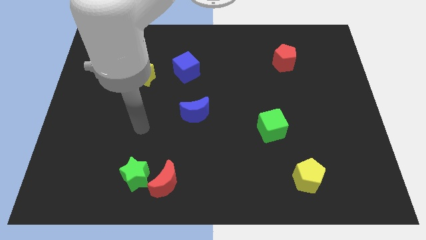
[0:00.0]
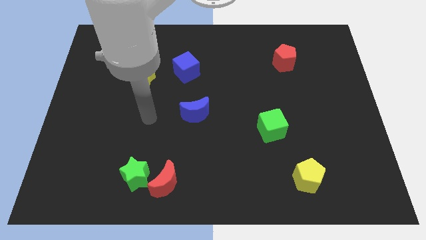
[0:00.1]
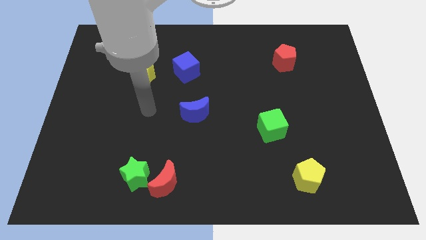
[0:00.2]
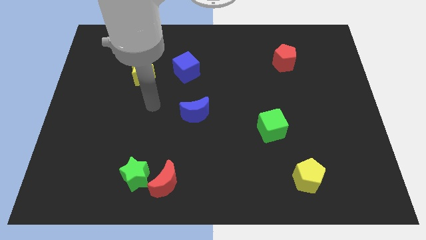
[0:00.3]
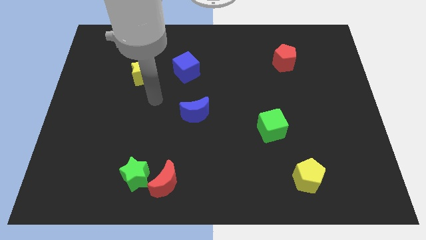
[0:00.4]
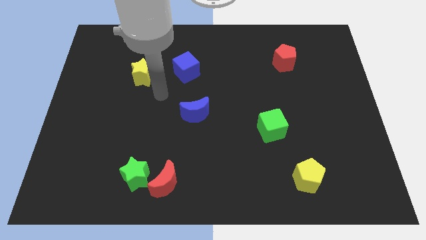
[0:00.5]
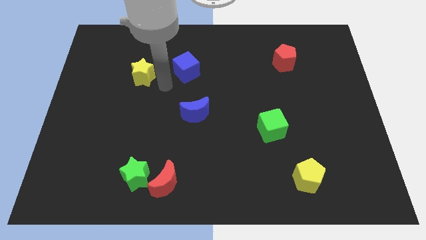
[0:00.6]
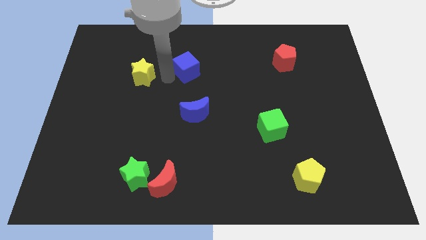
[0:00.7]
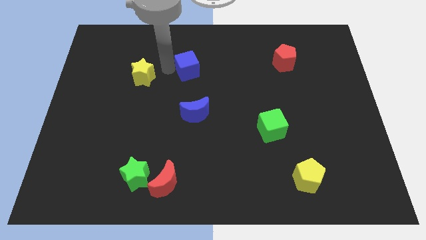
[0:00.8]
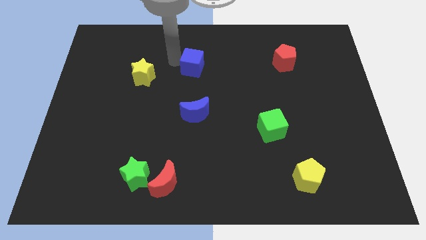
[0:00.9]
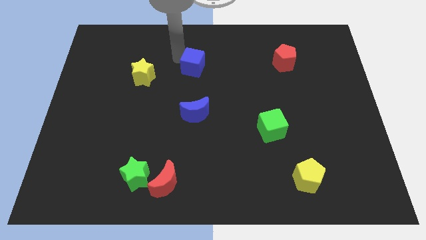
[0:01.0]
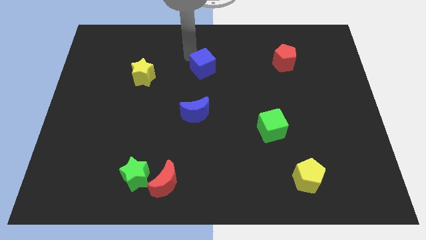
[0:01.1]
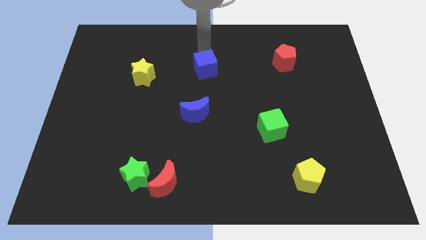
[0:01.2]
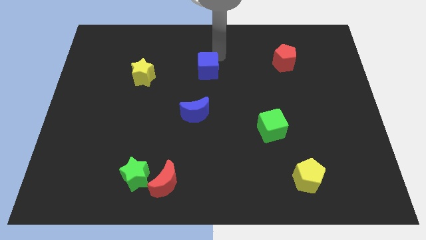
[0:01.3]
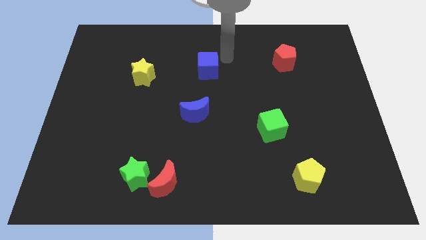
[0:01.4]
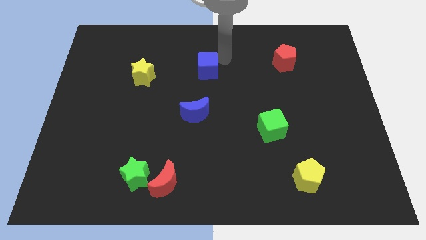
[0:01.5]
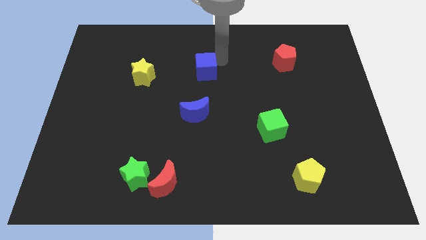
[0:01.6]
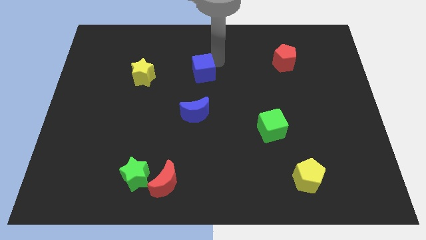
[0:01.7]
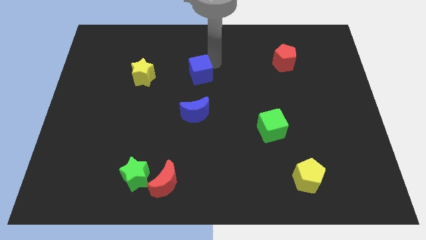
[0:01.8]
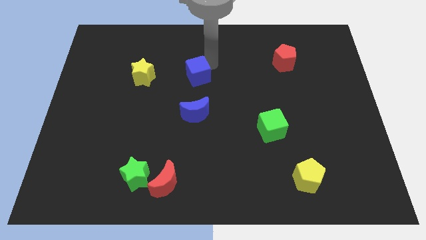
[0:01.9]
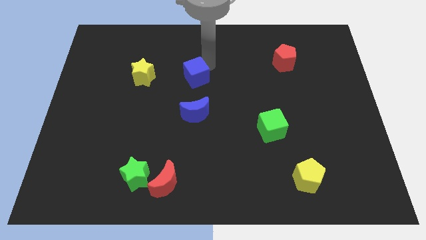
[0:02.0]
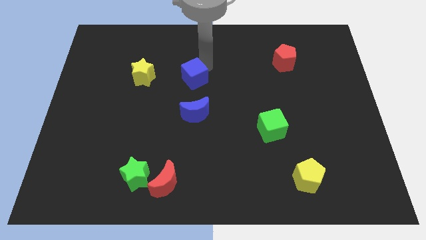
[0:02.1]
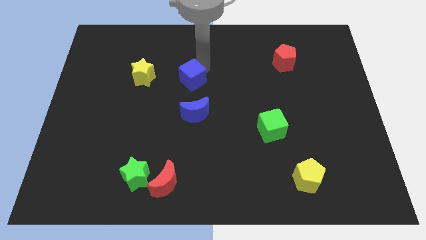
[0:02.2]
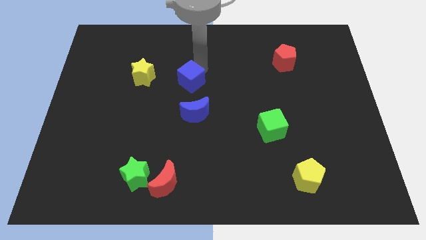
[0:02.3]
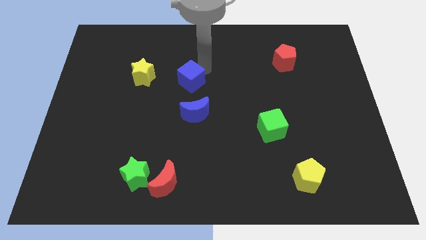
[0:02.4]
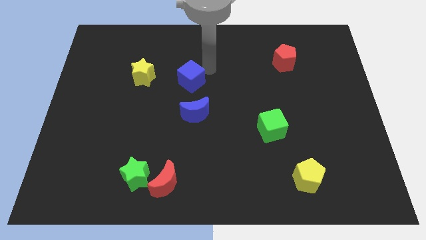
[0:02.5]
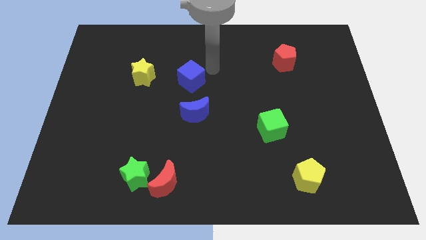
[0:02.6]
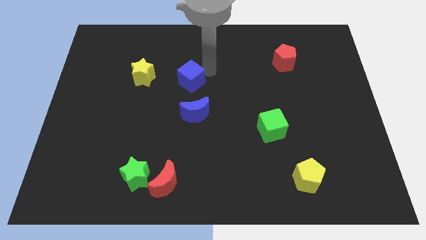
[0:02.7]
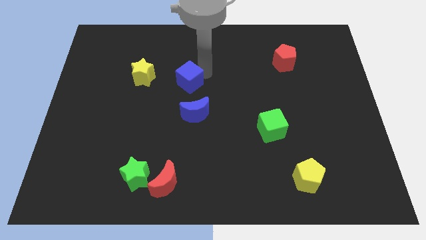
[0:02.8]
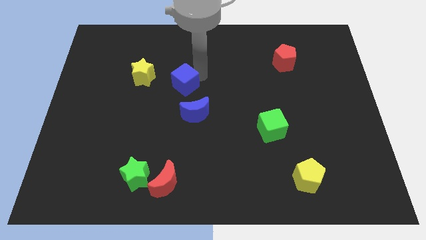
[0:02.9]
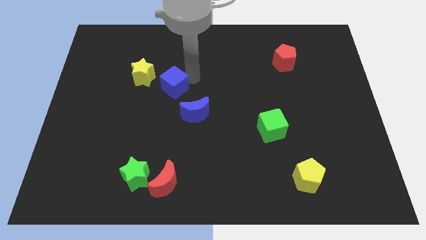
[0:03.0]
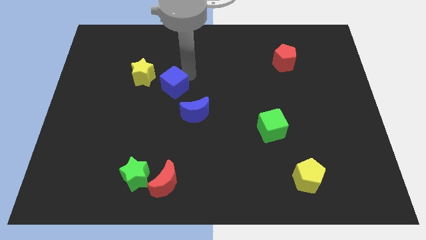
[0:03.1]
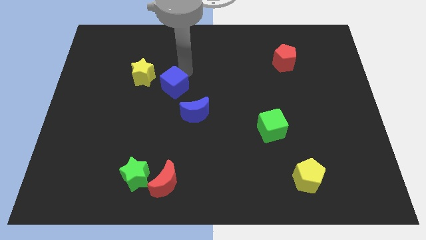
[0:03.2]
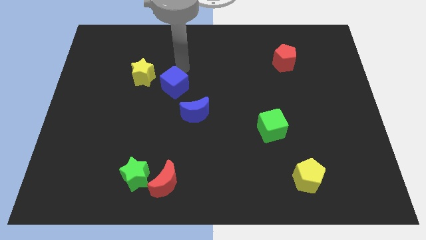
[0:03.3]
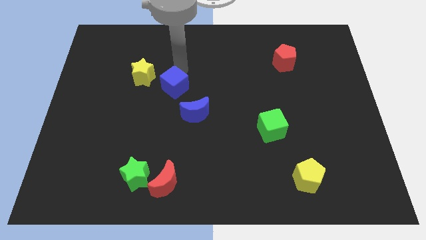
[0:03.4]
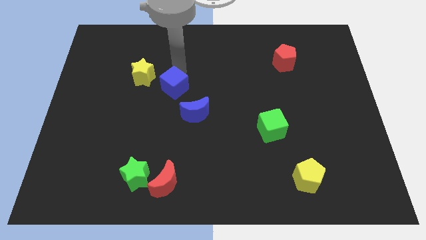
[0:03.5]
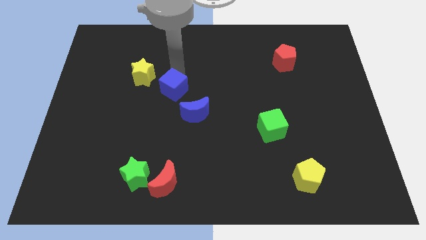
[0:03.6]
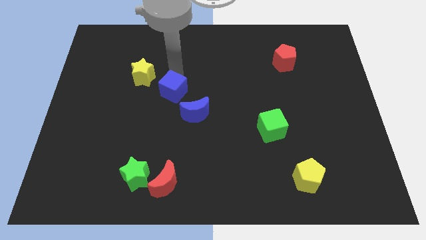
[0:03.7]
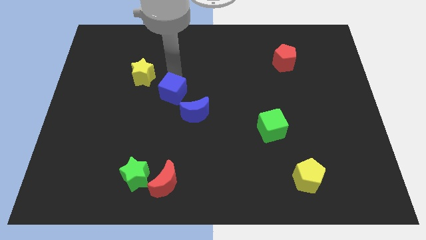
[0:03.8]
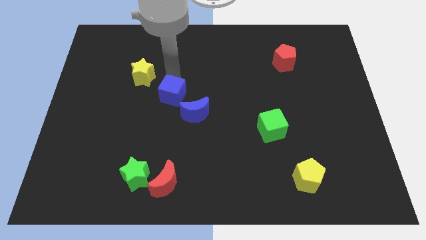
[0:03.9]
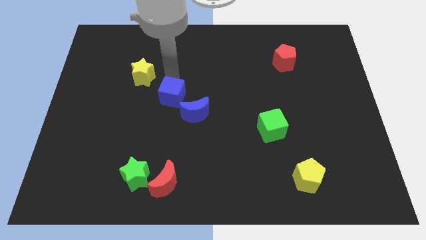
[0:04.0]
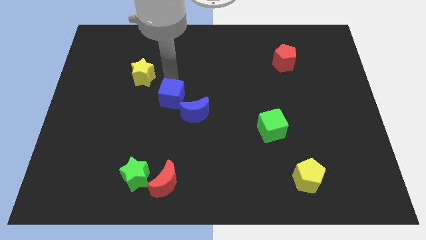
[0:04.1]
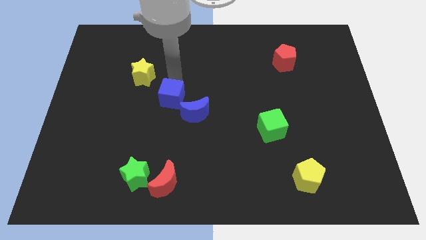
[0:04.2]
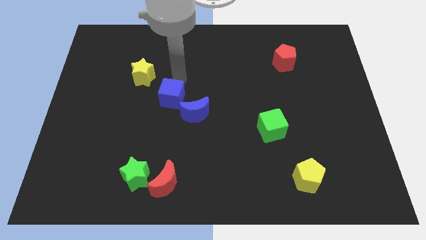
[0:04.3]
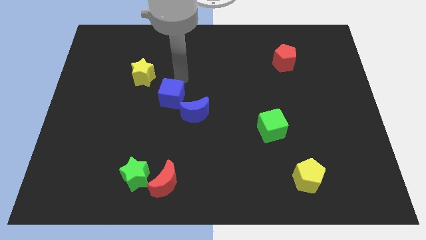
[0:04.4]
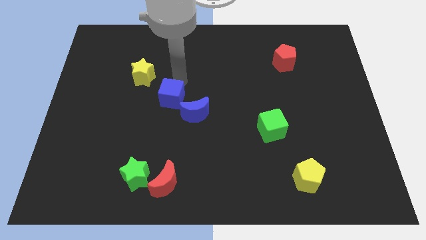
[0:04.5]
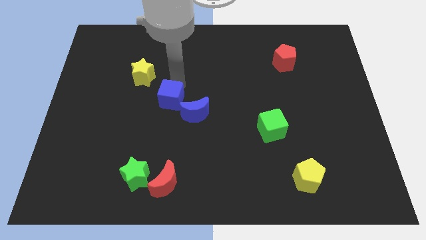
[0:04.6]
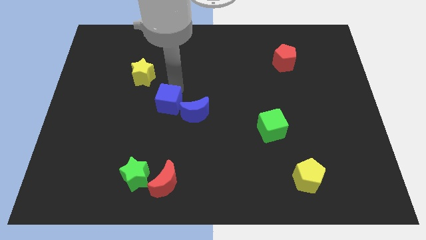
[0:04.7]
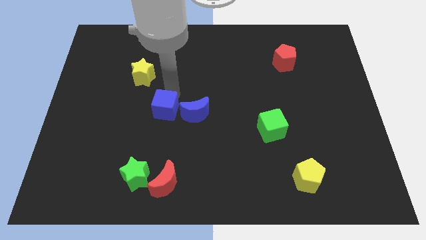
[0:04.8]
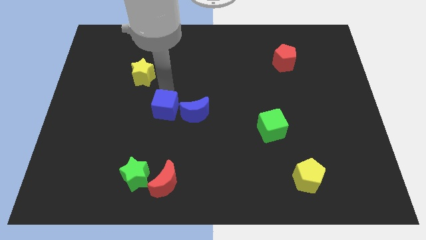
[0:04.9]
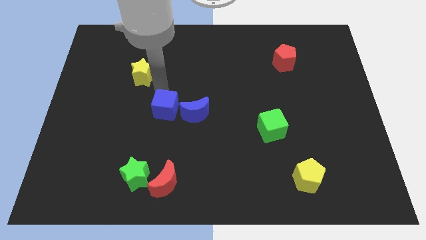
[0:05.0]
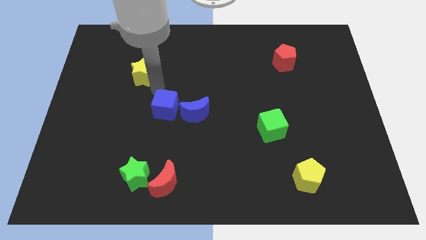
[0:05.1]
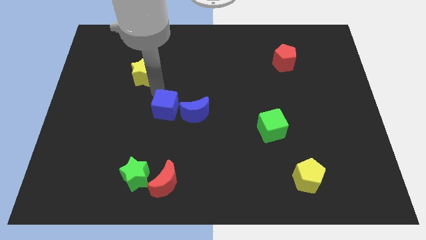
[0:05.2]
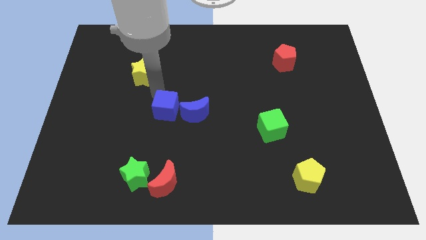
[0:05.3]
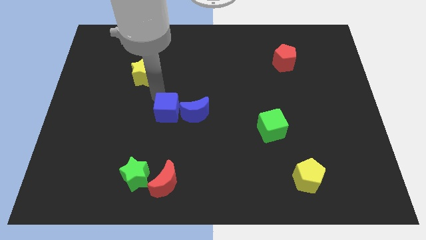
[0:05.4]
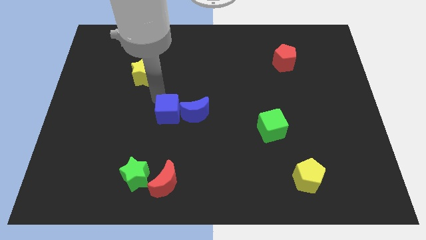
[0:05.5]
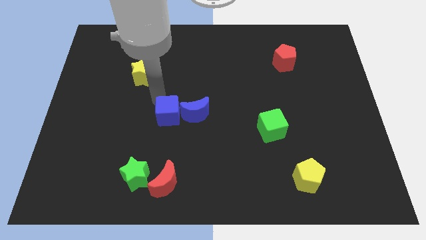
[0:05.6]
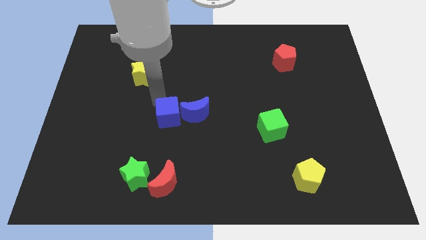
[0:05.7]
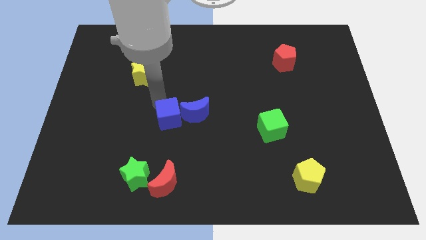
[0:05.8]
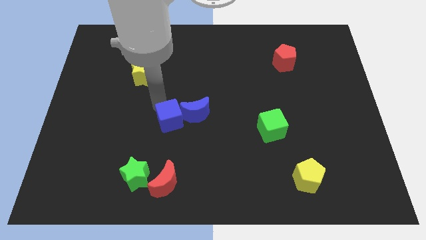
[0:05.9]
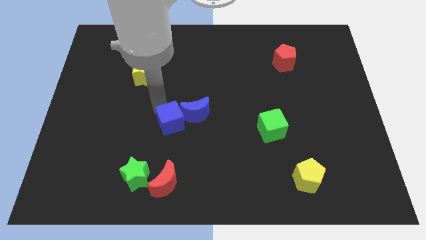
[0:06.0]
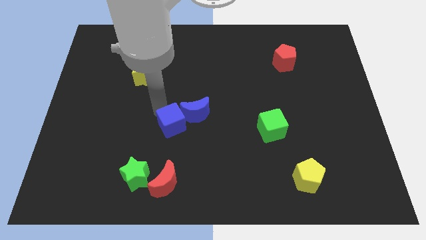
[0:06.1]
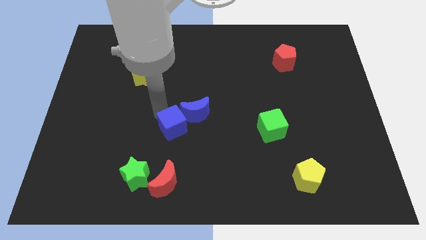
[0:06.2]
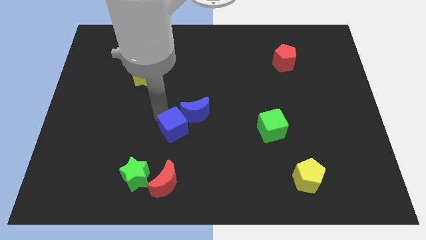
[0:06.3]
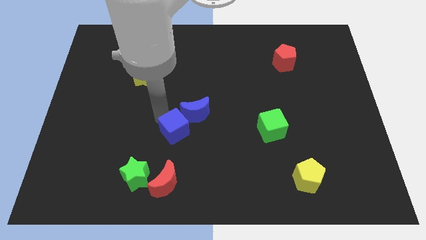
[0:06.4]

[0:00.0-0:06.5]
put the blue cube to the bottom of the blue moon

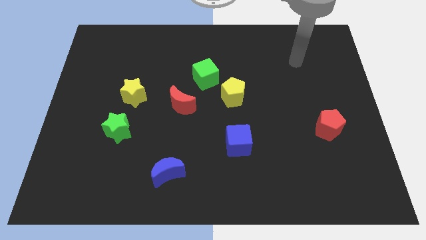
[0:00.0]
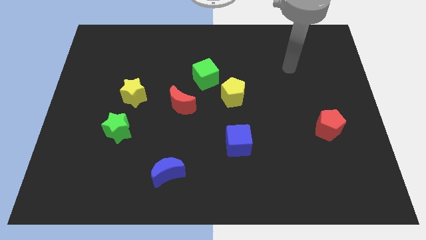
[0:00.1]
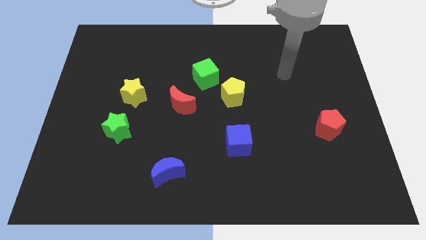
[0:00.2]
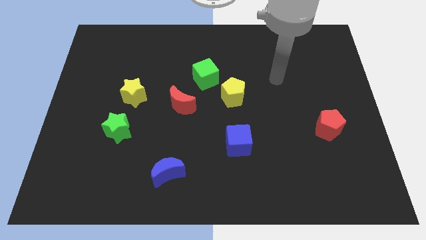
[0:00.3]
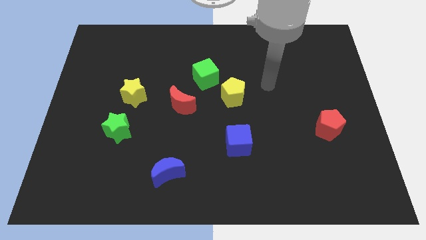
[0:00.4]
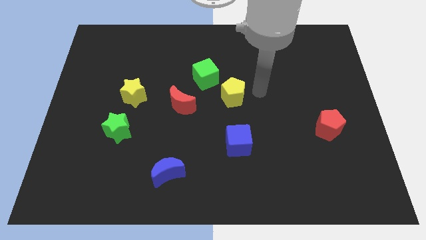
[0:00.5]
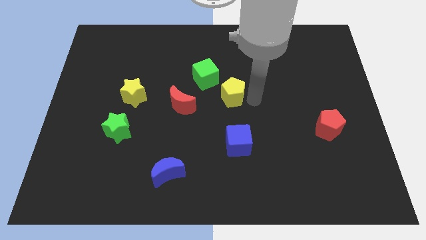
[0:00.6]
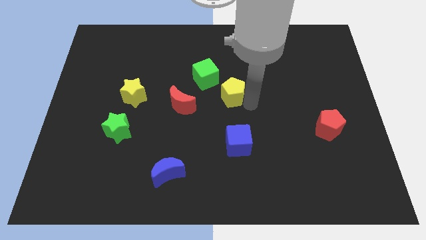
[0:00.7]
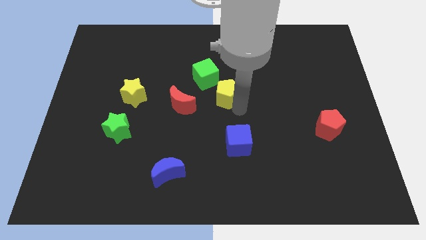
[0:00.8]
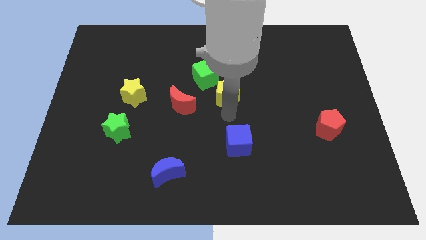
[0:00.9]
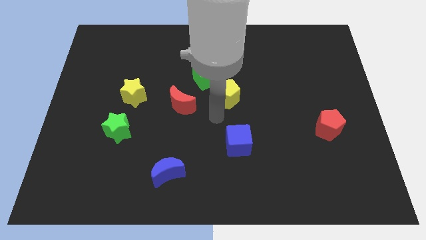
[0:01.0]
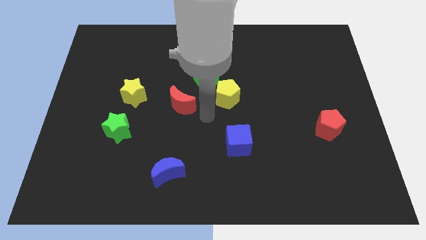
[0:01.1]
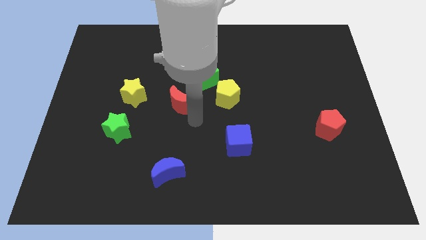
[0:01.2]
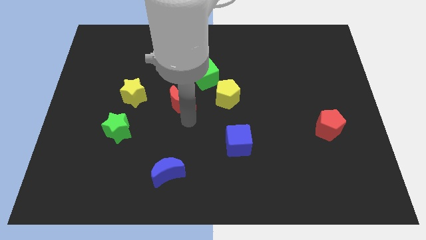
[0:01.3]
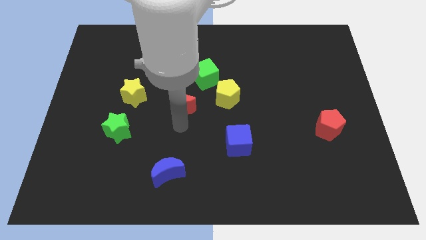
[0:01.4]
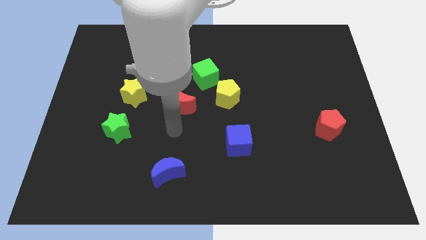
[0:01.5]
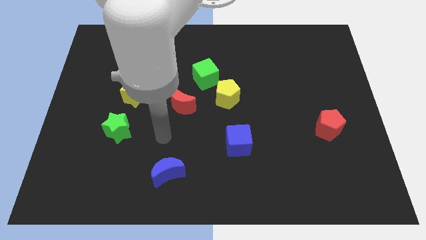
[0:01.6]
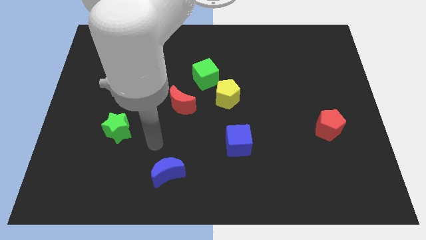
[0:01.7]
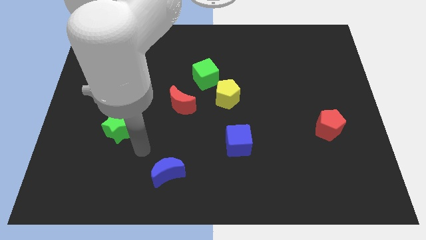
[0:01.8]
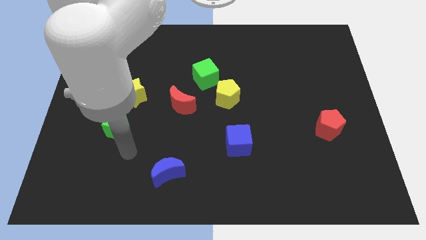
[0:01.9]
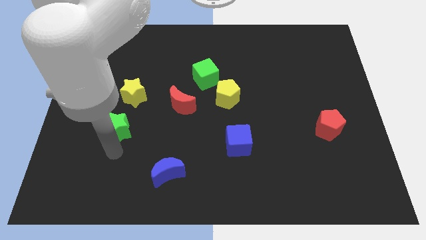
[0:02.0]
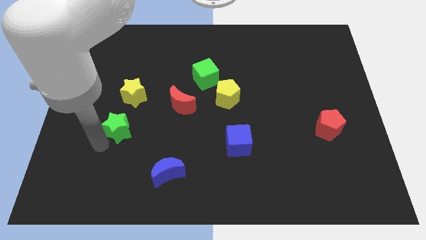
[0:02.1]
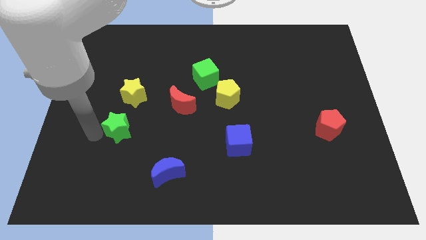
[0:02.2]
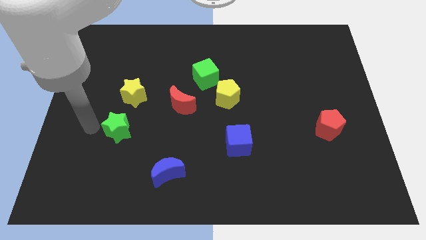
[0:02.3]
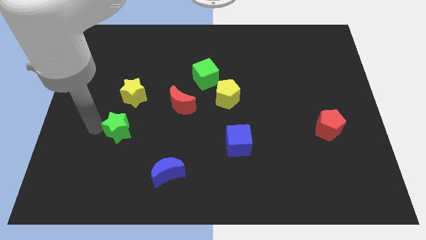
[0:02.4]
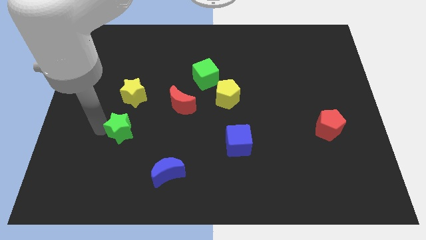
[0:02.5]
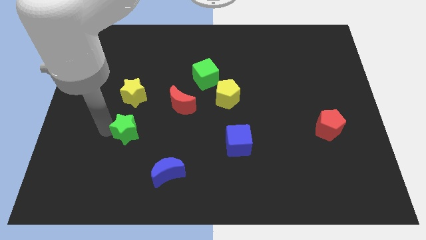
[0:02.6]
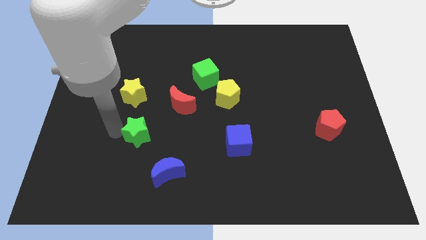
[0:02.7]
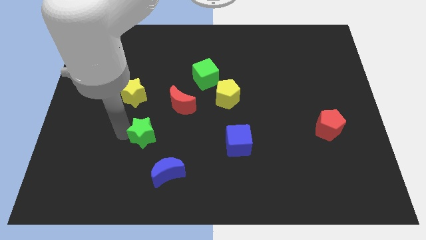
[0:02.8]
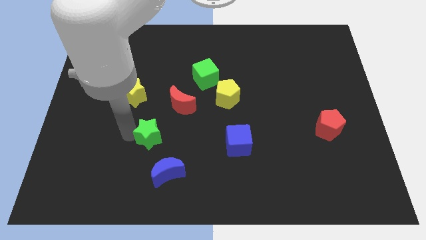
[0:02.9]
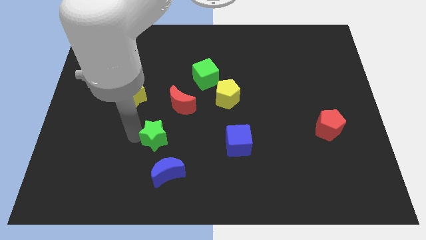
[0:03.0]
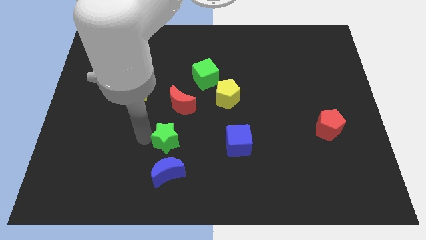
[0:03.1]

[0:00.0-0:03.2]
move the green star to the left of the blue cube
